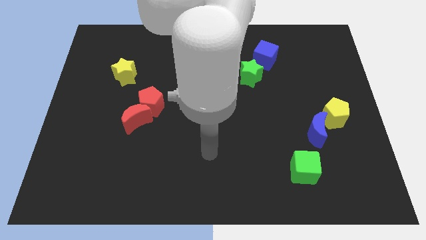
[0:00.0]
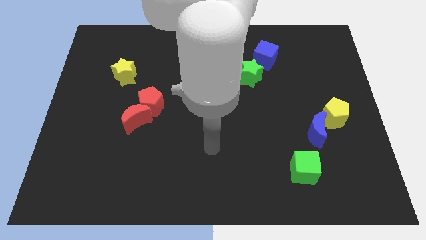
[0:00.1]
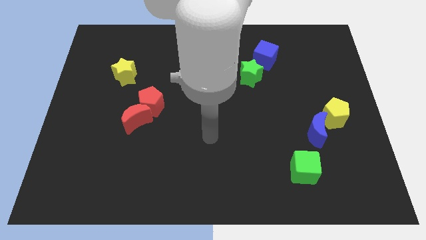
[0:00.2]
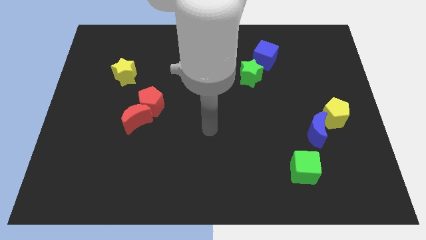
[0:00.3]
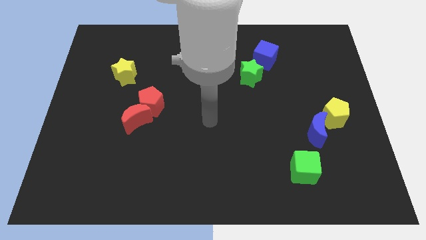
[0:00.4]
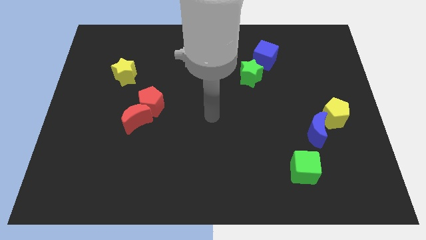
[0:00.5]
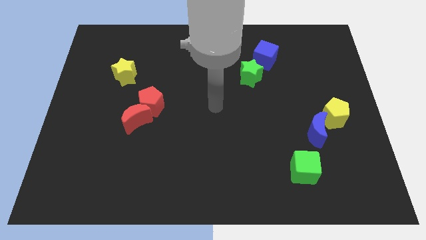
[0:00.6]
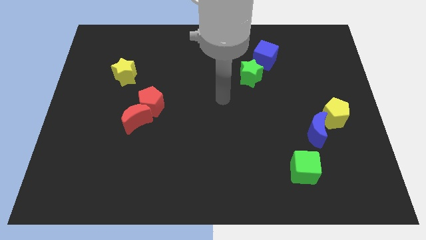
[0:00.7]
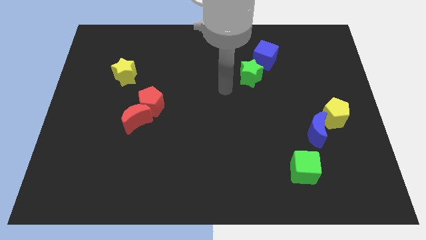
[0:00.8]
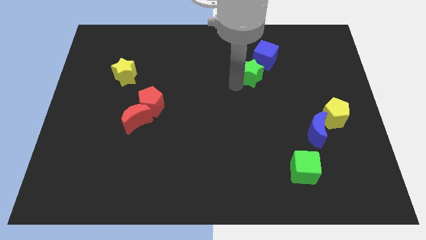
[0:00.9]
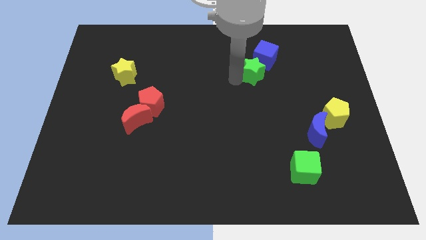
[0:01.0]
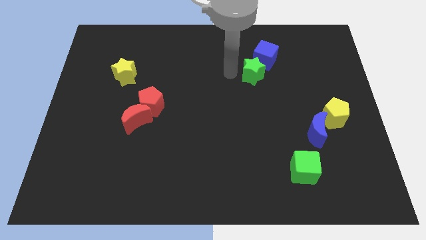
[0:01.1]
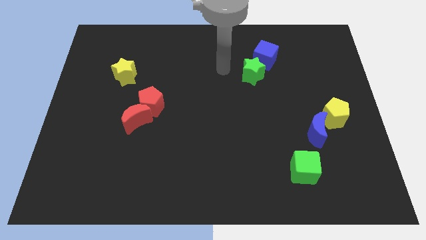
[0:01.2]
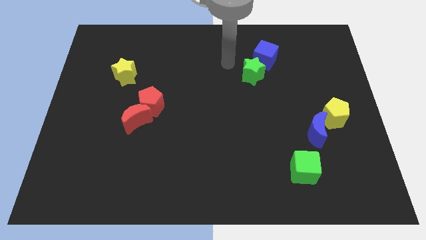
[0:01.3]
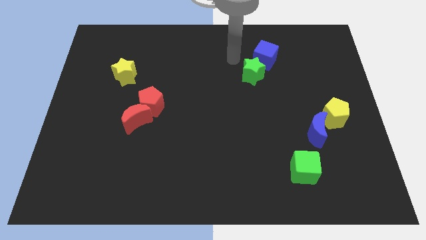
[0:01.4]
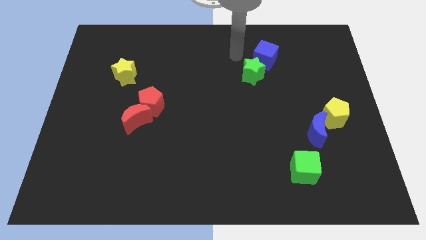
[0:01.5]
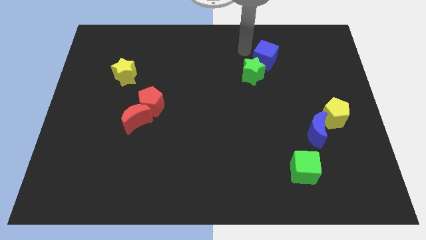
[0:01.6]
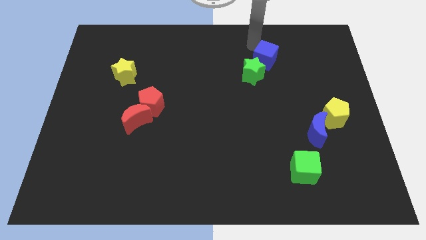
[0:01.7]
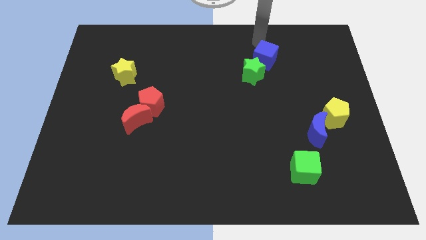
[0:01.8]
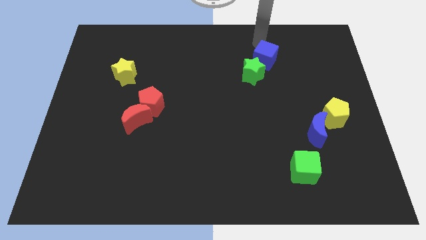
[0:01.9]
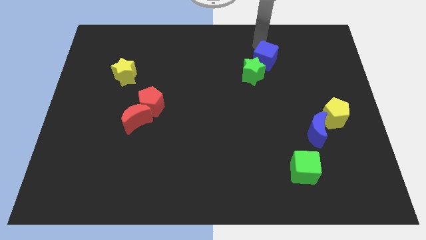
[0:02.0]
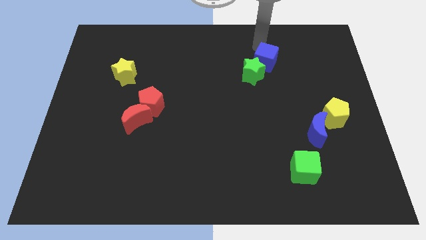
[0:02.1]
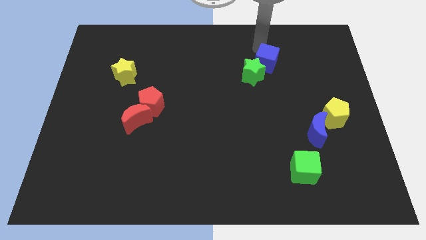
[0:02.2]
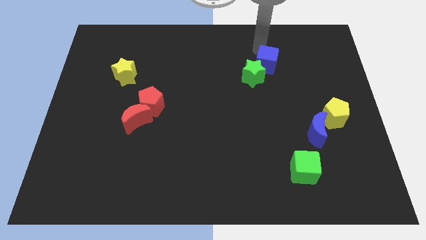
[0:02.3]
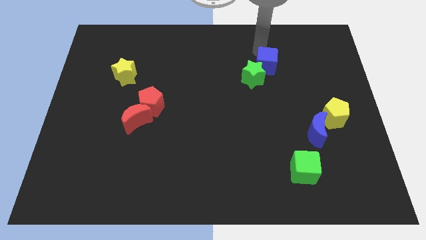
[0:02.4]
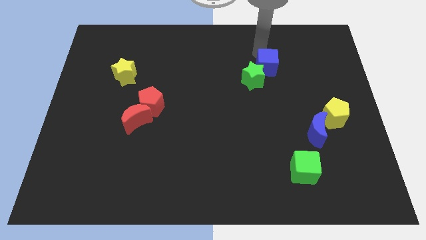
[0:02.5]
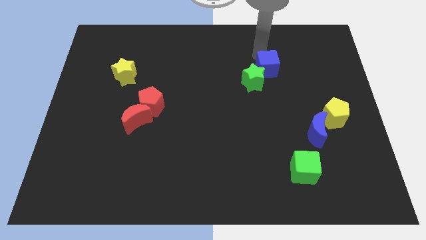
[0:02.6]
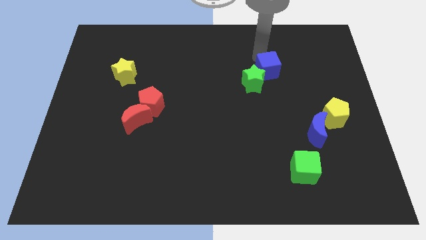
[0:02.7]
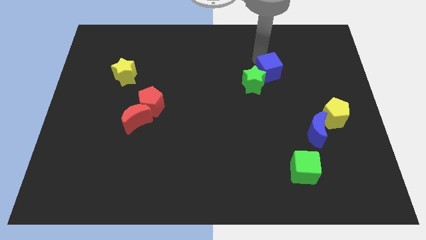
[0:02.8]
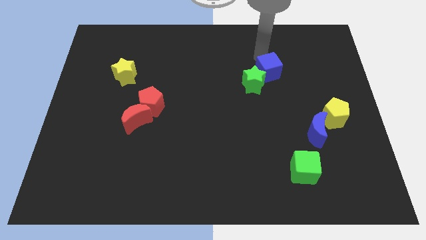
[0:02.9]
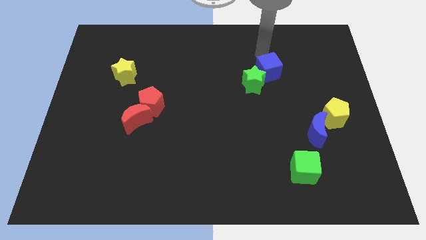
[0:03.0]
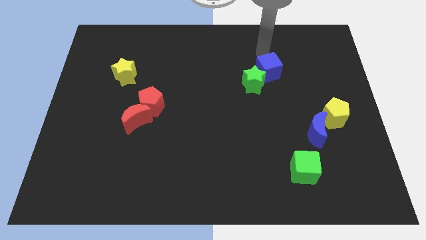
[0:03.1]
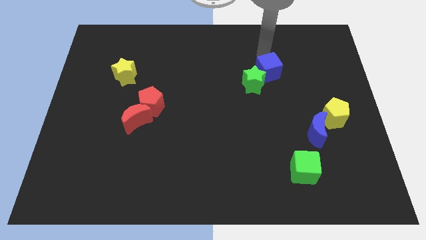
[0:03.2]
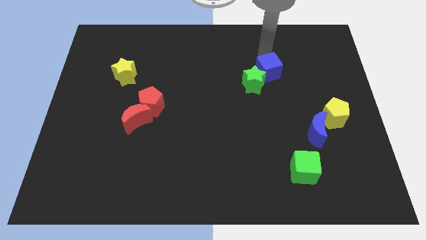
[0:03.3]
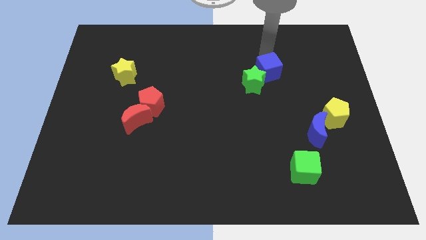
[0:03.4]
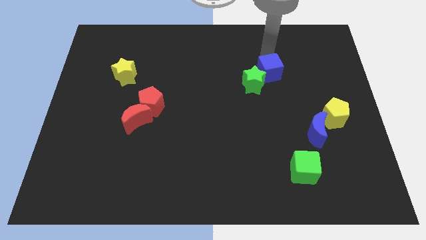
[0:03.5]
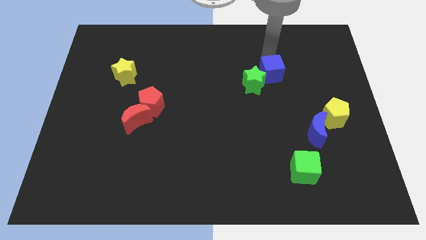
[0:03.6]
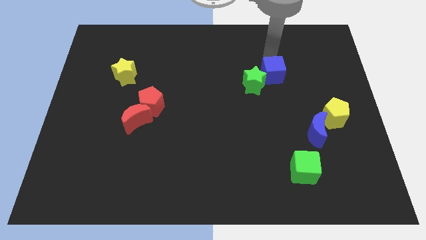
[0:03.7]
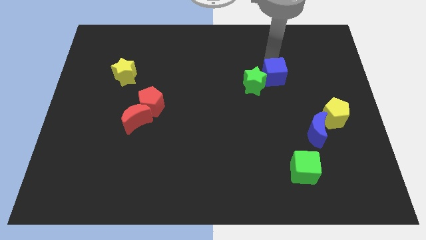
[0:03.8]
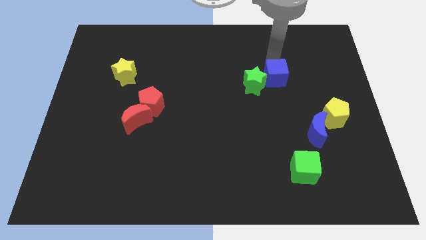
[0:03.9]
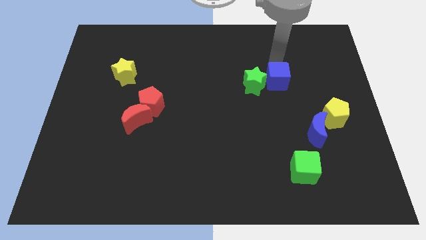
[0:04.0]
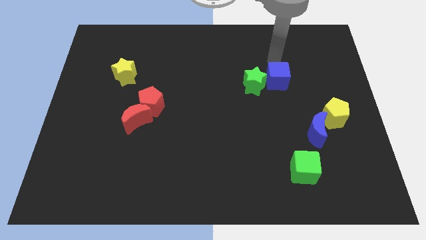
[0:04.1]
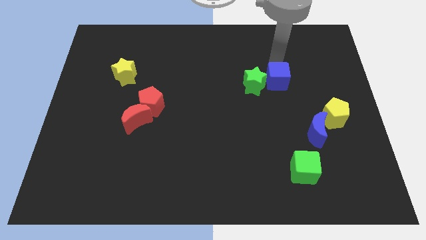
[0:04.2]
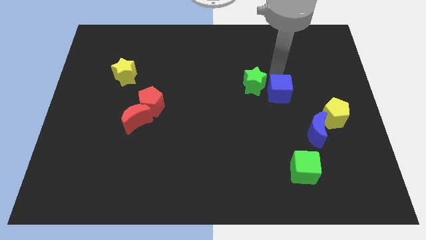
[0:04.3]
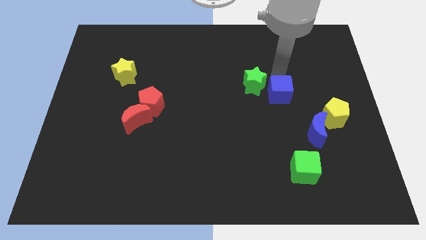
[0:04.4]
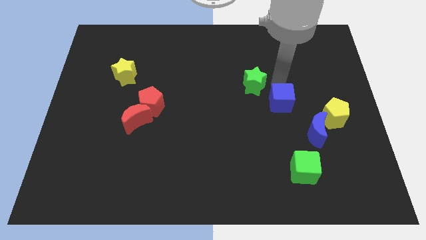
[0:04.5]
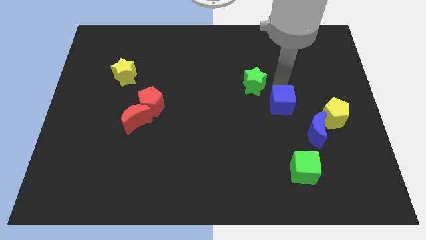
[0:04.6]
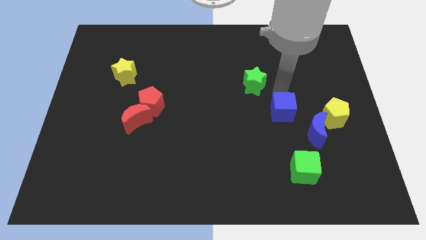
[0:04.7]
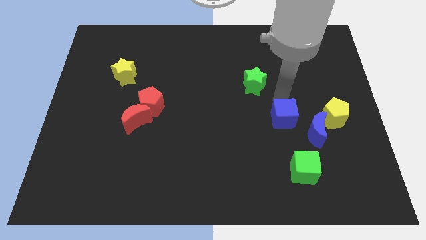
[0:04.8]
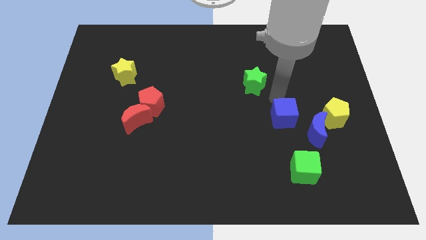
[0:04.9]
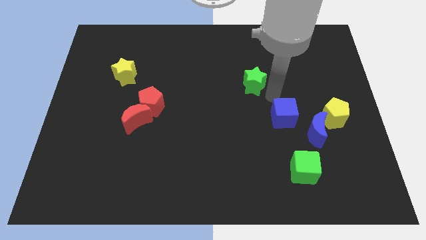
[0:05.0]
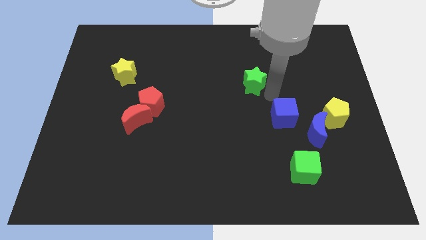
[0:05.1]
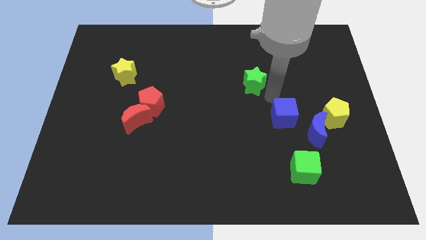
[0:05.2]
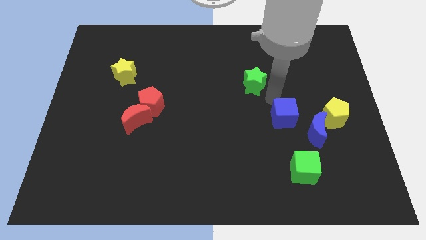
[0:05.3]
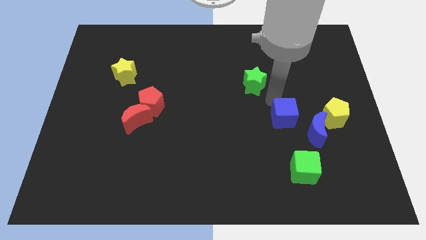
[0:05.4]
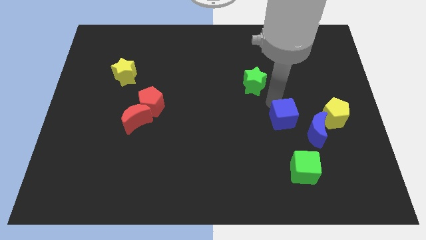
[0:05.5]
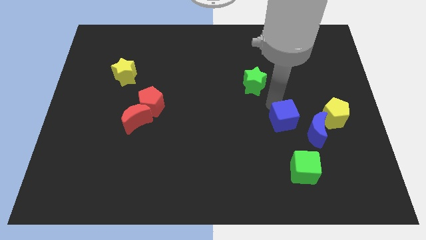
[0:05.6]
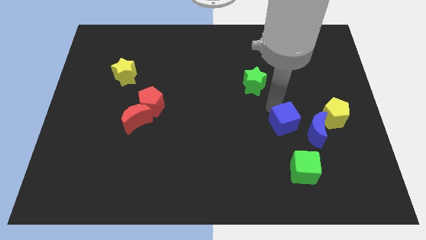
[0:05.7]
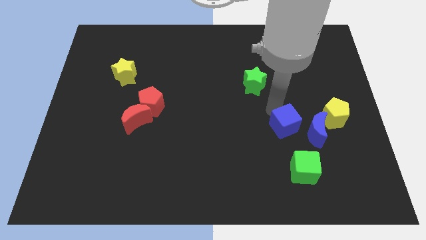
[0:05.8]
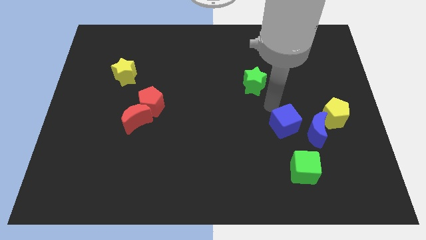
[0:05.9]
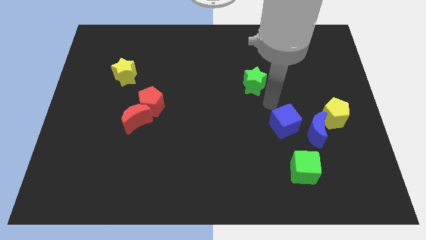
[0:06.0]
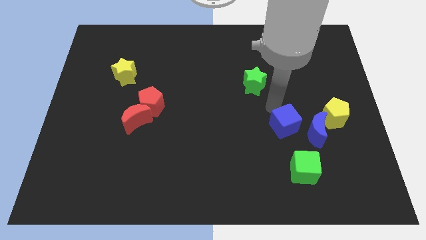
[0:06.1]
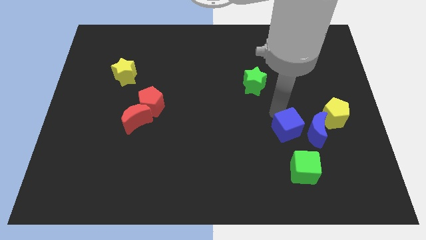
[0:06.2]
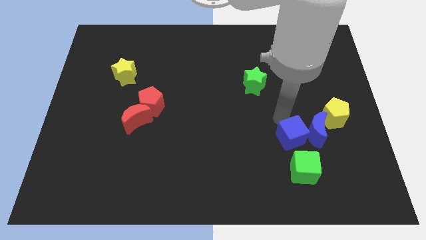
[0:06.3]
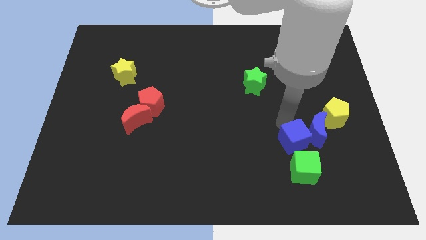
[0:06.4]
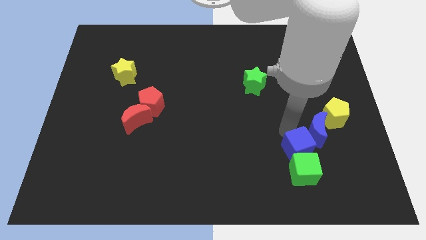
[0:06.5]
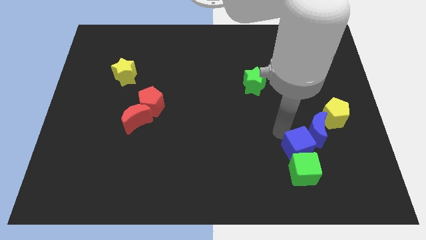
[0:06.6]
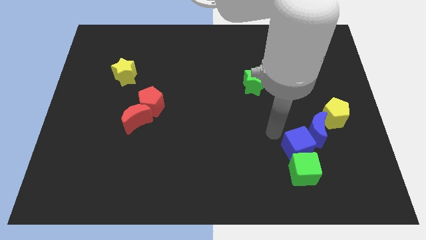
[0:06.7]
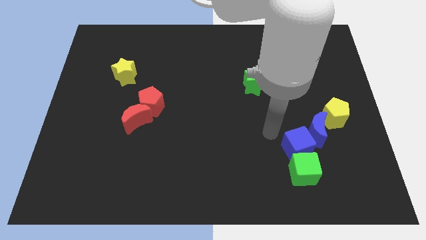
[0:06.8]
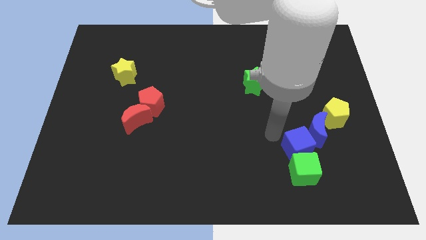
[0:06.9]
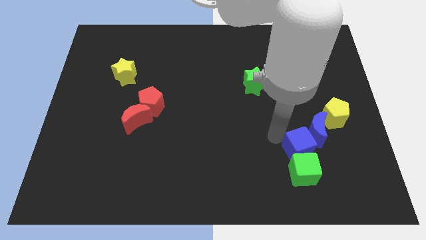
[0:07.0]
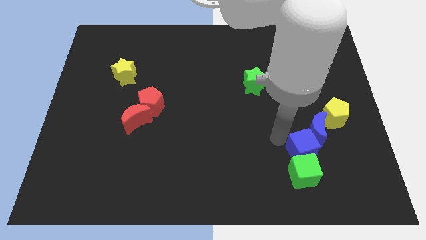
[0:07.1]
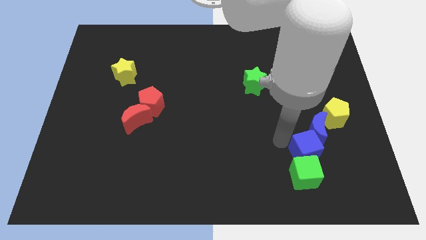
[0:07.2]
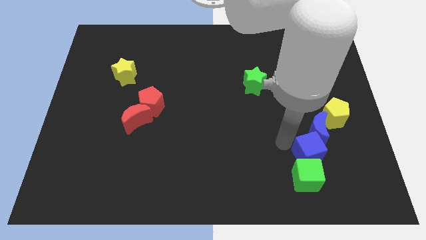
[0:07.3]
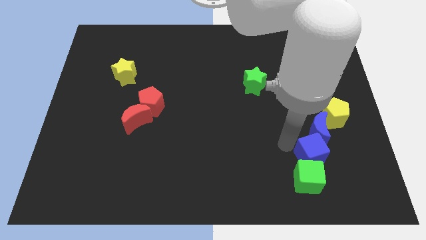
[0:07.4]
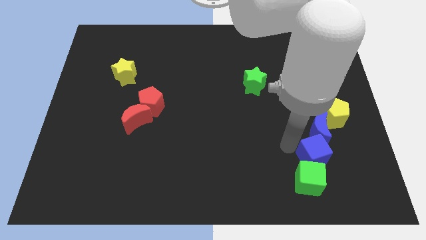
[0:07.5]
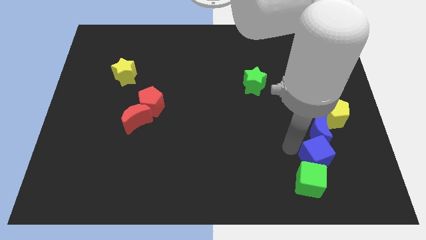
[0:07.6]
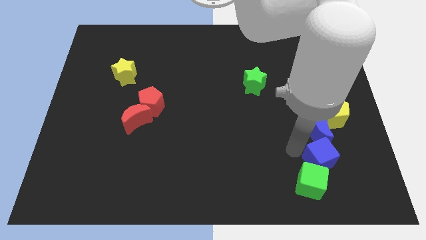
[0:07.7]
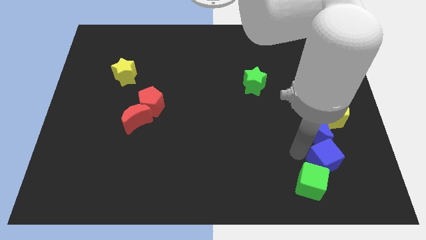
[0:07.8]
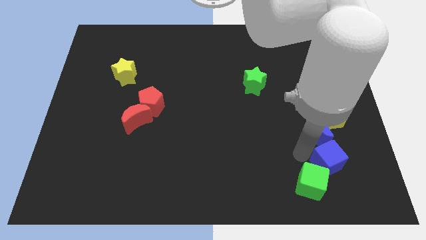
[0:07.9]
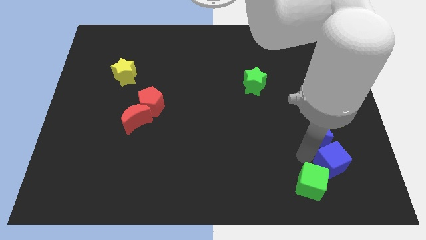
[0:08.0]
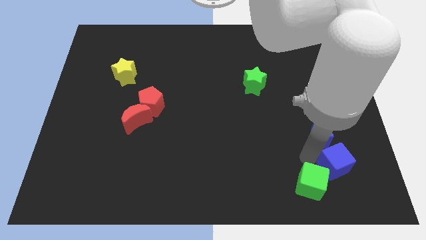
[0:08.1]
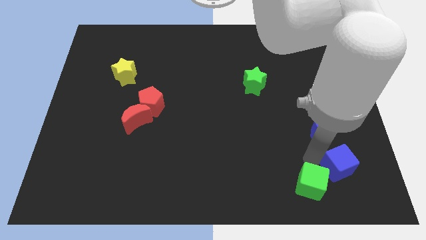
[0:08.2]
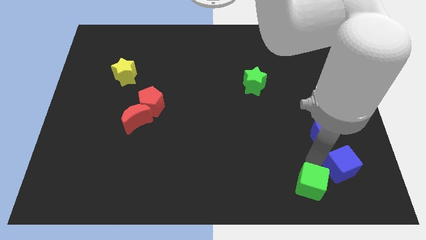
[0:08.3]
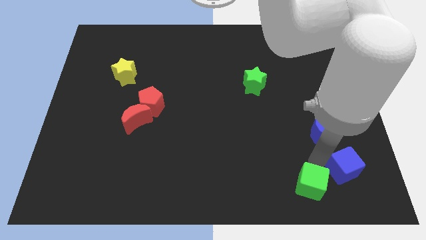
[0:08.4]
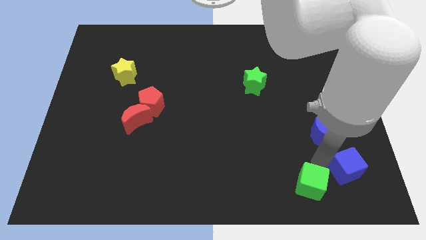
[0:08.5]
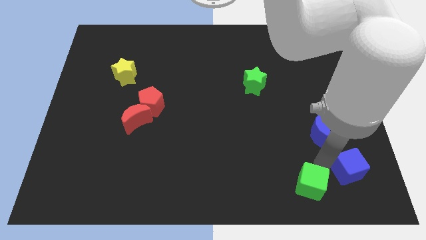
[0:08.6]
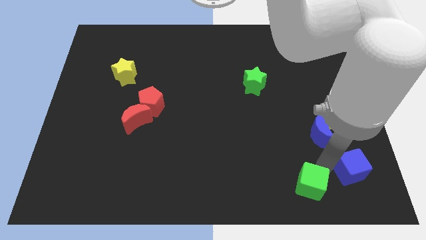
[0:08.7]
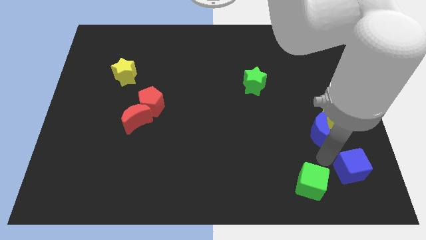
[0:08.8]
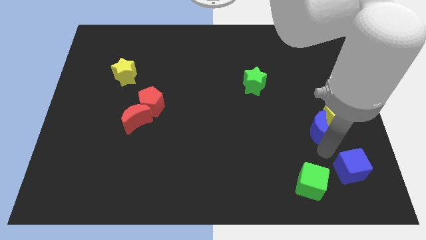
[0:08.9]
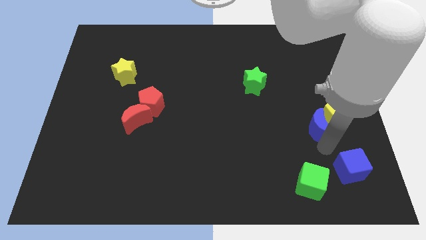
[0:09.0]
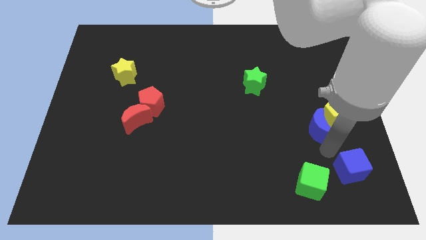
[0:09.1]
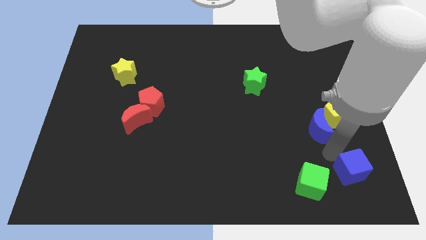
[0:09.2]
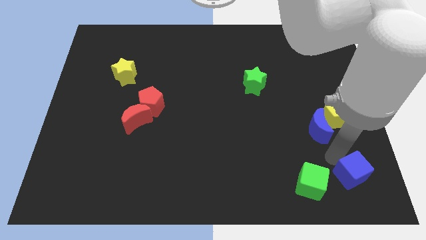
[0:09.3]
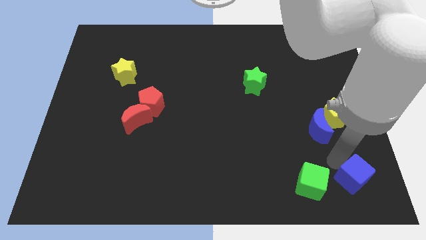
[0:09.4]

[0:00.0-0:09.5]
move the blue cube to the bottom right of the board
